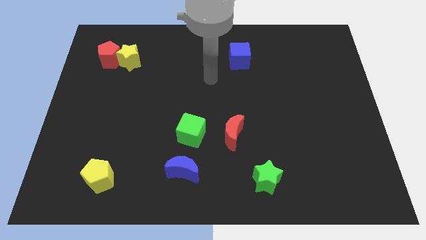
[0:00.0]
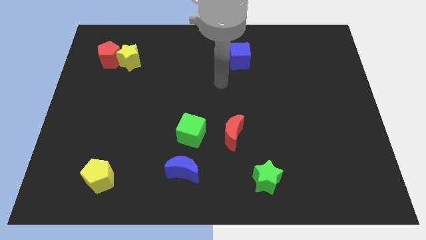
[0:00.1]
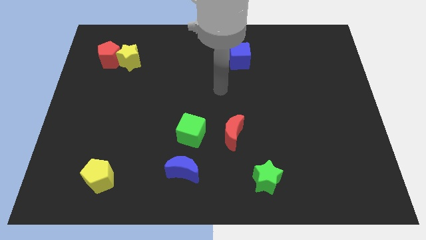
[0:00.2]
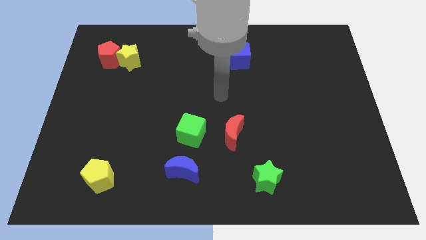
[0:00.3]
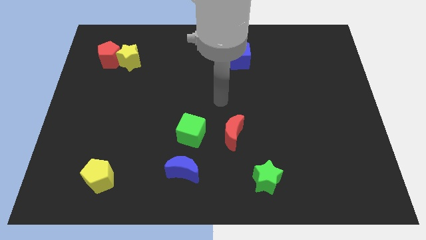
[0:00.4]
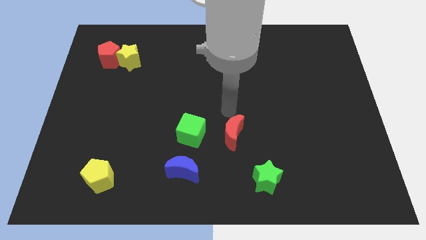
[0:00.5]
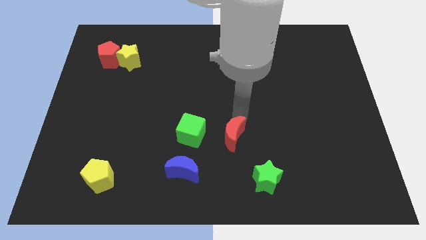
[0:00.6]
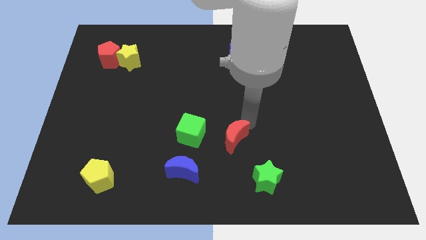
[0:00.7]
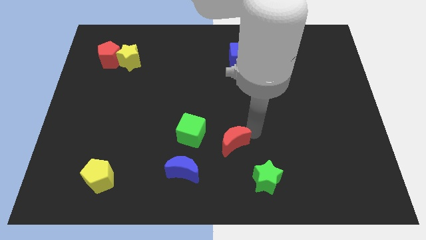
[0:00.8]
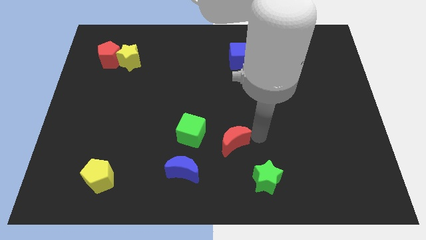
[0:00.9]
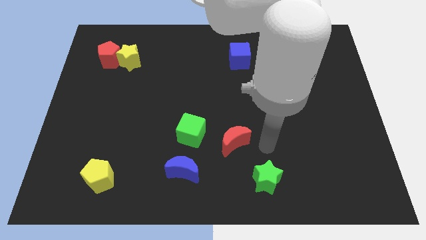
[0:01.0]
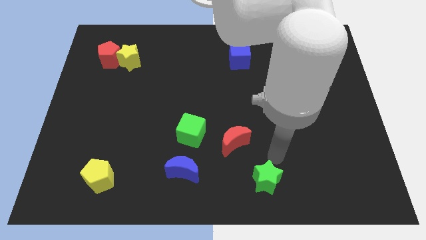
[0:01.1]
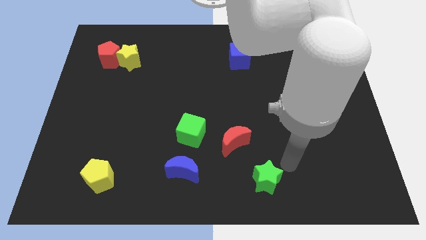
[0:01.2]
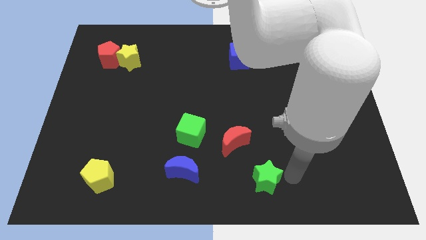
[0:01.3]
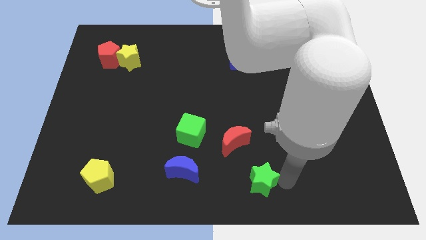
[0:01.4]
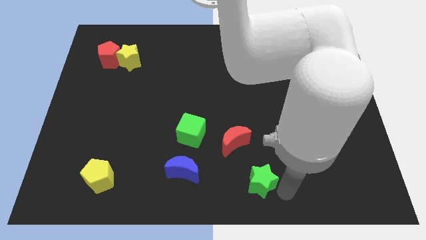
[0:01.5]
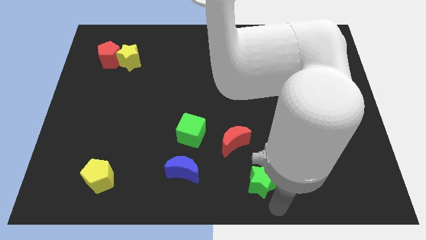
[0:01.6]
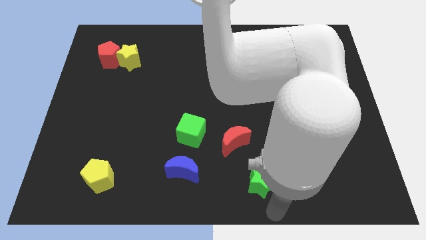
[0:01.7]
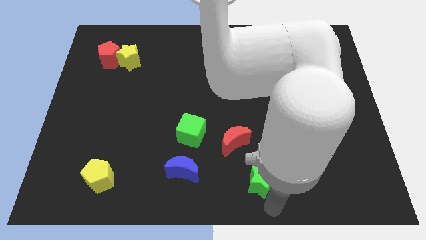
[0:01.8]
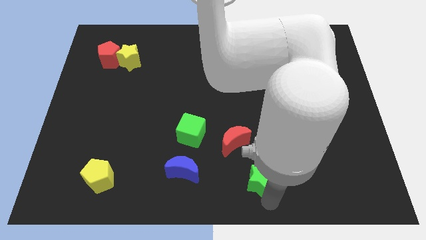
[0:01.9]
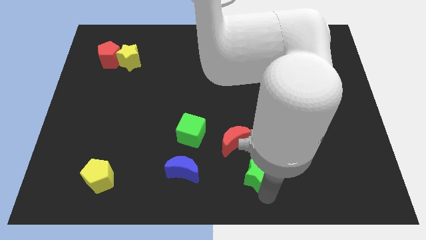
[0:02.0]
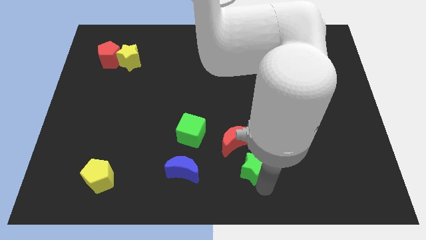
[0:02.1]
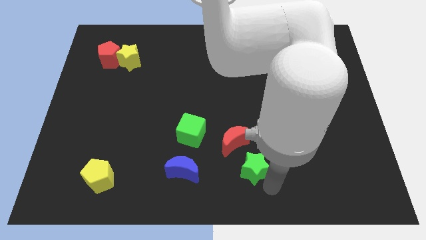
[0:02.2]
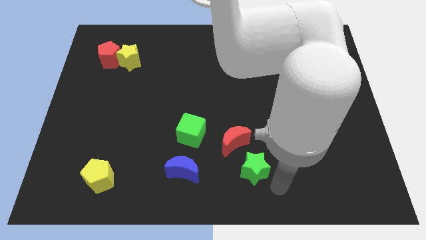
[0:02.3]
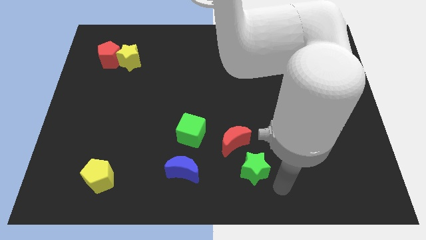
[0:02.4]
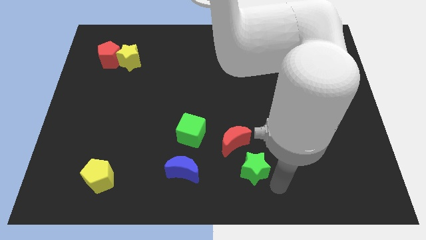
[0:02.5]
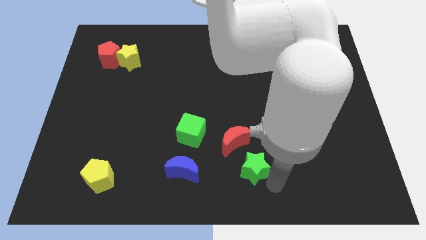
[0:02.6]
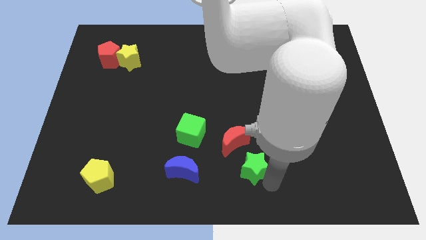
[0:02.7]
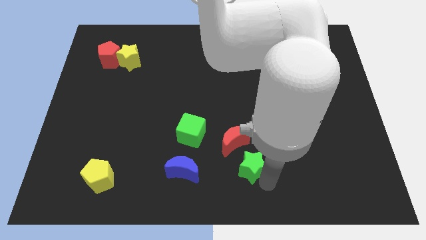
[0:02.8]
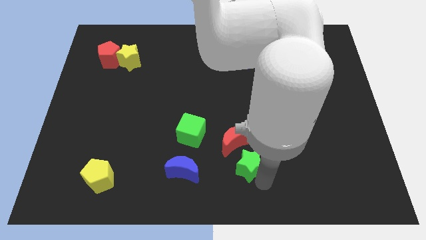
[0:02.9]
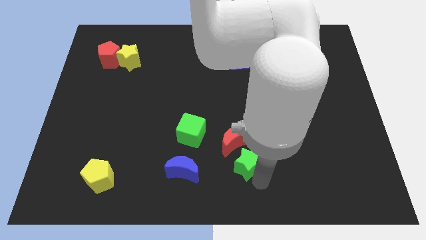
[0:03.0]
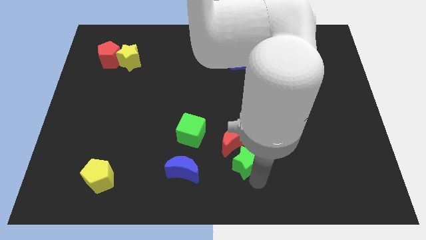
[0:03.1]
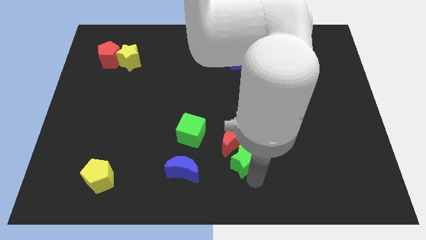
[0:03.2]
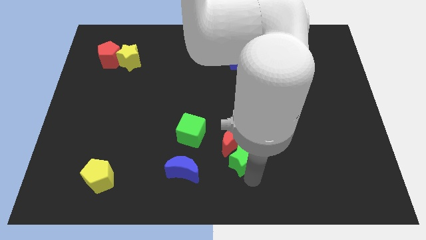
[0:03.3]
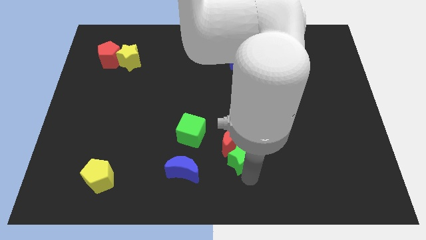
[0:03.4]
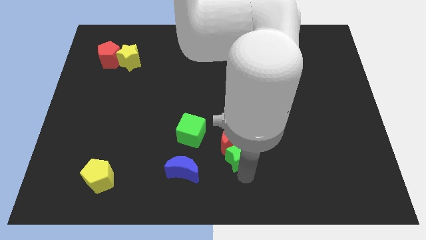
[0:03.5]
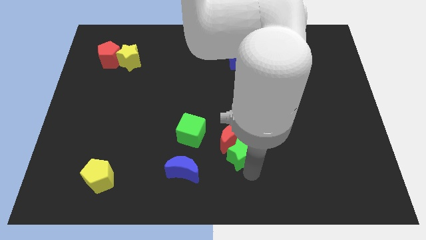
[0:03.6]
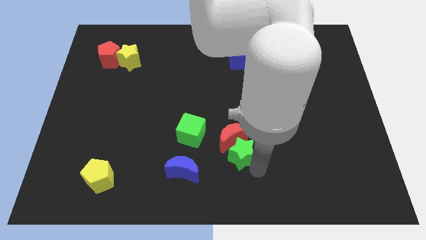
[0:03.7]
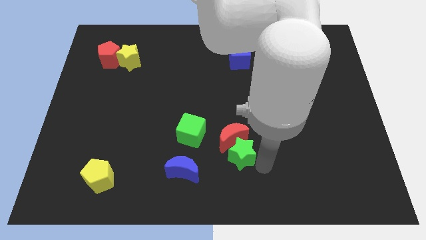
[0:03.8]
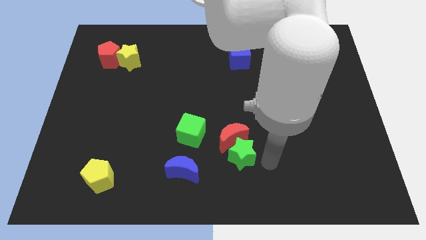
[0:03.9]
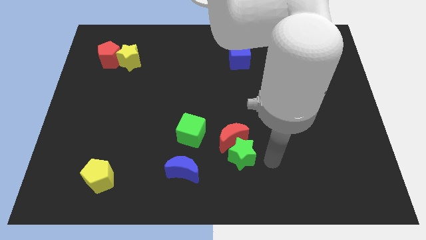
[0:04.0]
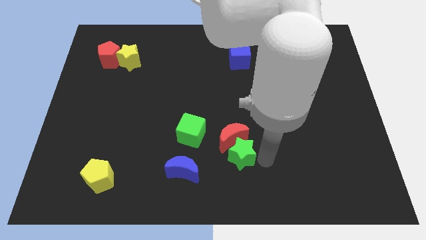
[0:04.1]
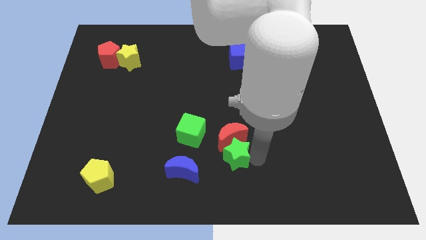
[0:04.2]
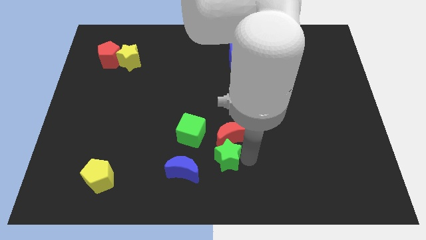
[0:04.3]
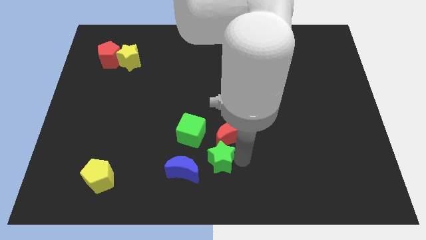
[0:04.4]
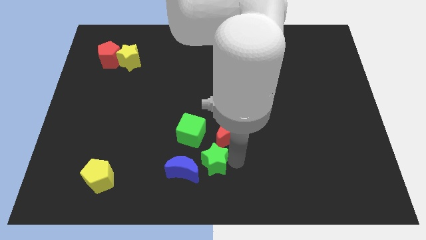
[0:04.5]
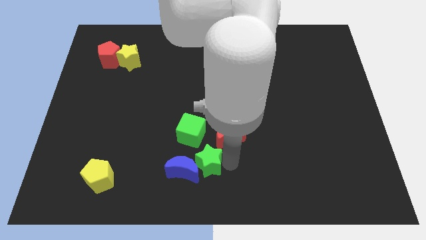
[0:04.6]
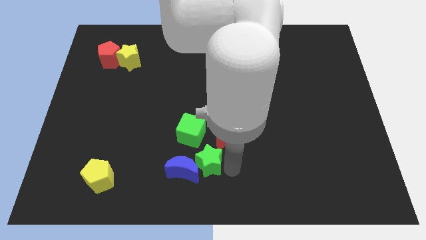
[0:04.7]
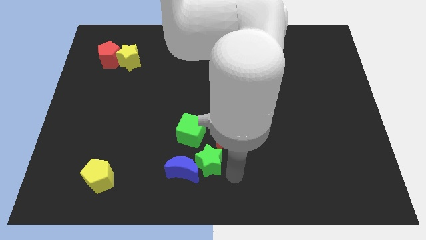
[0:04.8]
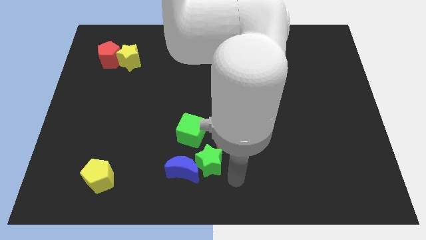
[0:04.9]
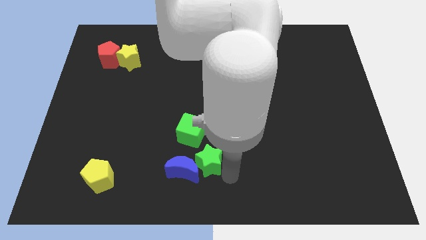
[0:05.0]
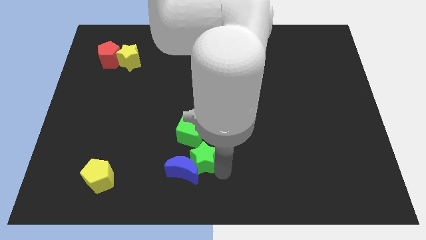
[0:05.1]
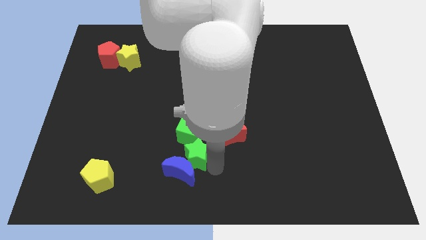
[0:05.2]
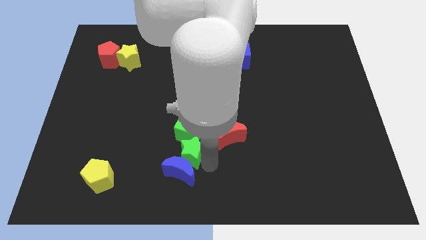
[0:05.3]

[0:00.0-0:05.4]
push the green star left of the red moon
